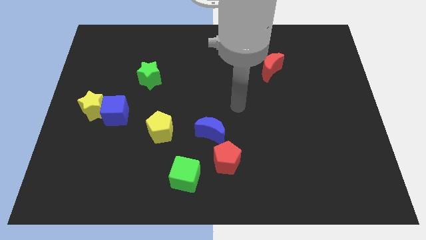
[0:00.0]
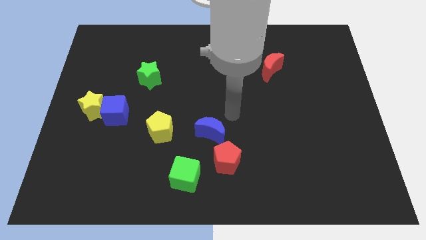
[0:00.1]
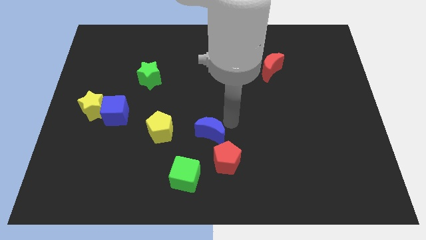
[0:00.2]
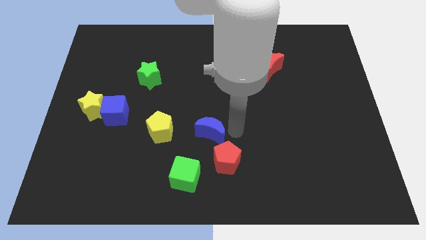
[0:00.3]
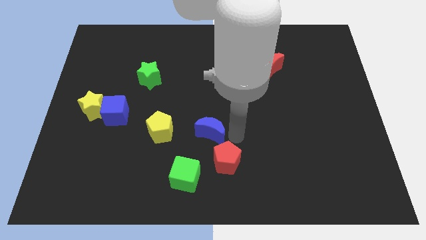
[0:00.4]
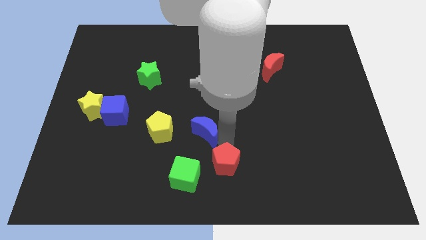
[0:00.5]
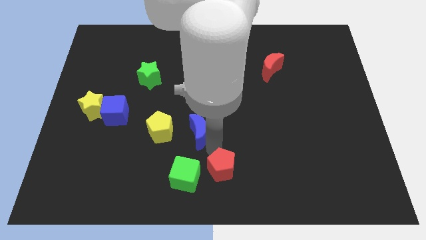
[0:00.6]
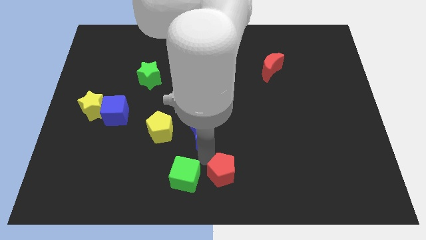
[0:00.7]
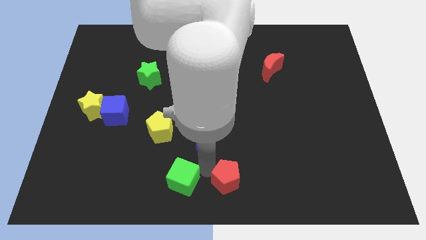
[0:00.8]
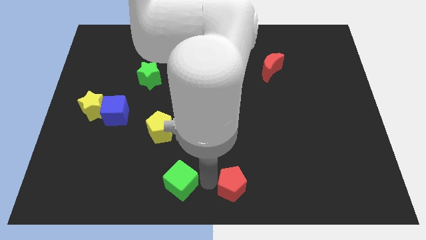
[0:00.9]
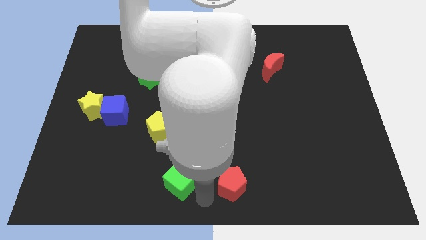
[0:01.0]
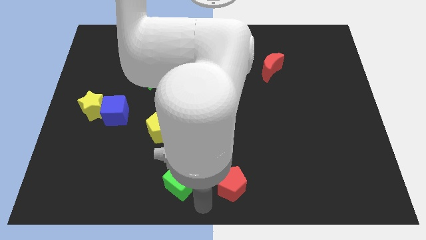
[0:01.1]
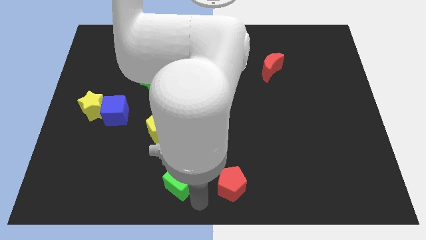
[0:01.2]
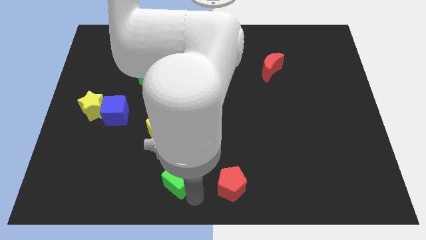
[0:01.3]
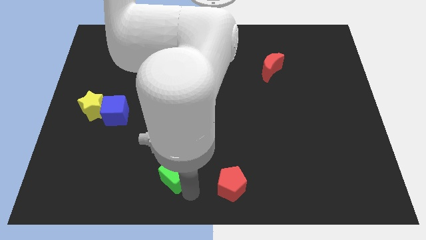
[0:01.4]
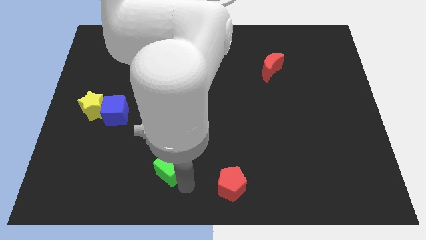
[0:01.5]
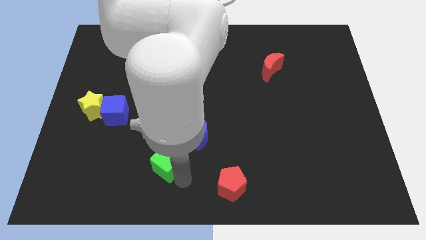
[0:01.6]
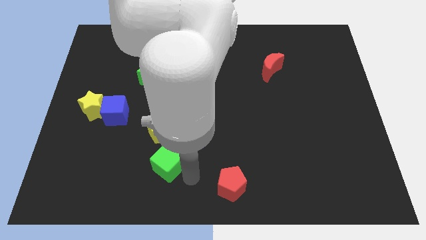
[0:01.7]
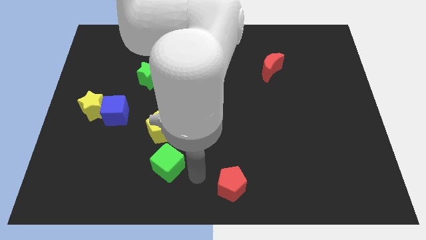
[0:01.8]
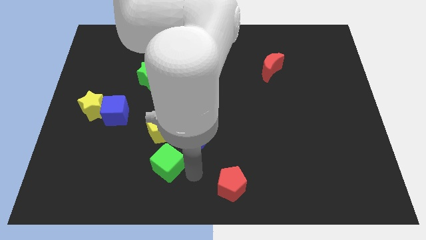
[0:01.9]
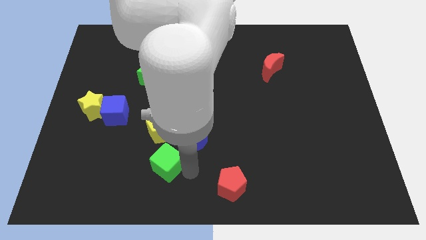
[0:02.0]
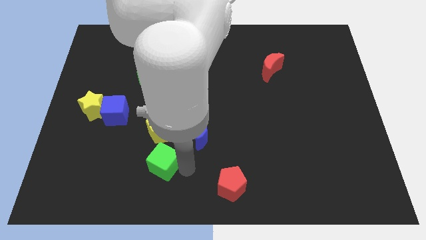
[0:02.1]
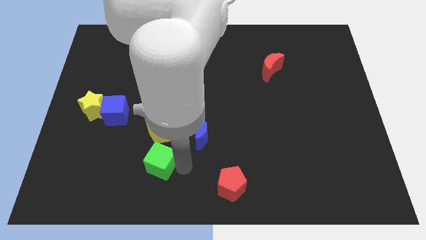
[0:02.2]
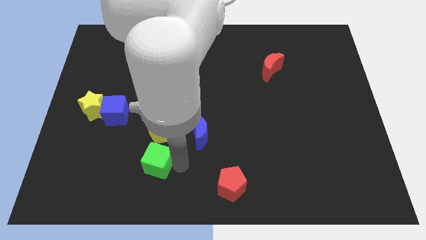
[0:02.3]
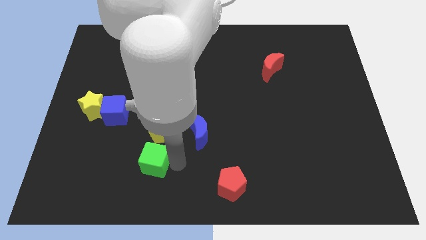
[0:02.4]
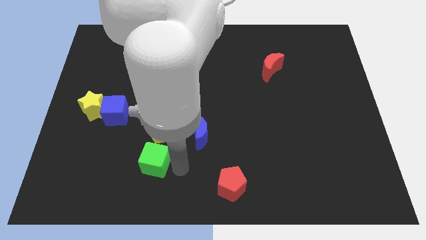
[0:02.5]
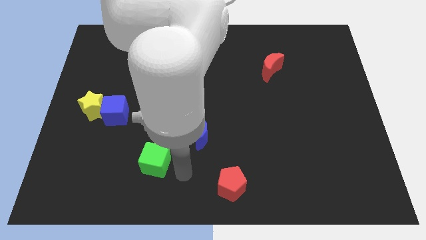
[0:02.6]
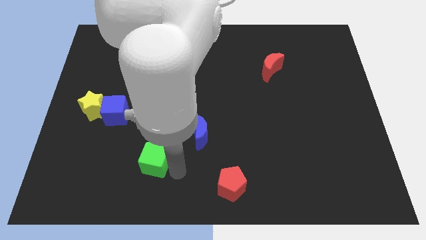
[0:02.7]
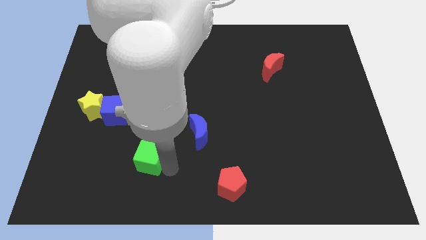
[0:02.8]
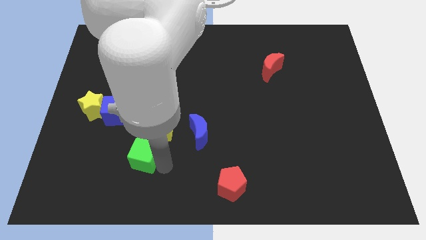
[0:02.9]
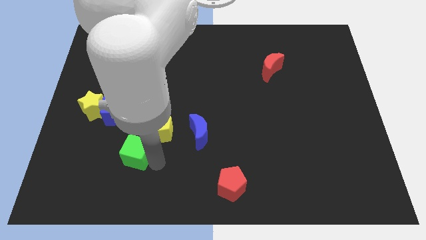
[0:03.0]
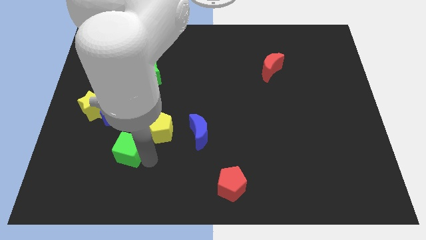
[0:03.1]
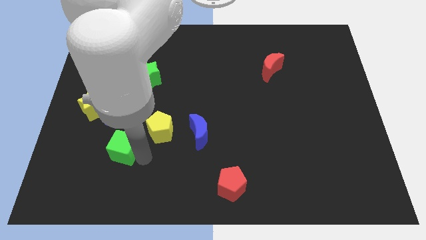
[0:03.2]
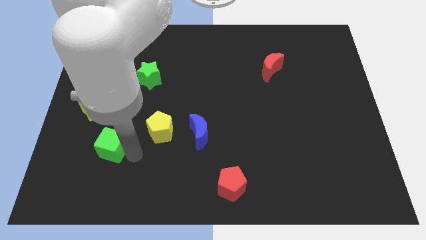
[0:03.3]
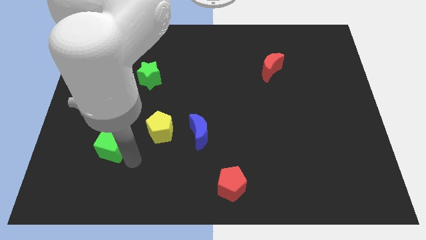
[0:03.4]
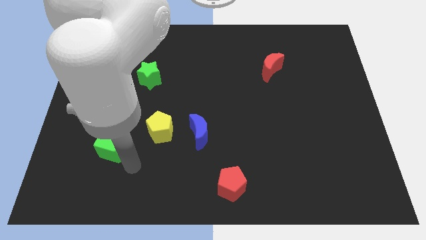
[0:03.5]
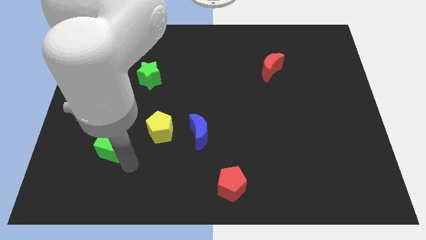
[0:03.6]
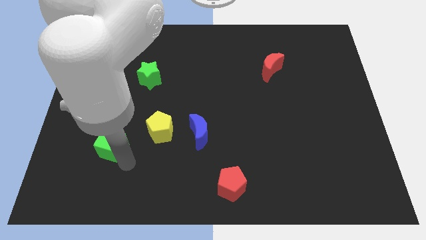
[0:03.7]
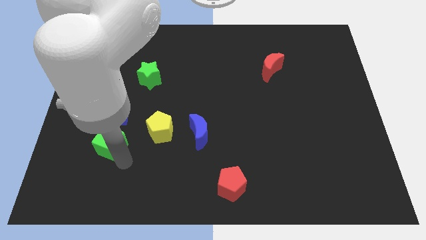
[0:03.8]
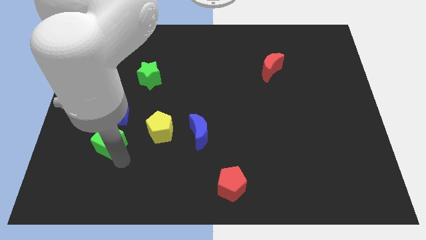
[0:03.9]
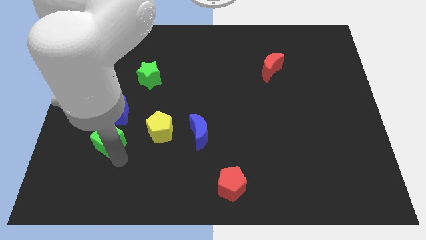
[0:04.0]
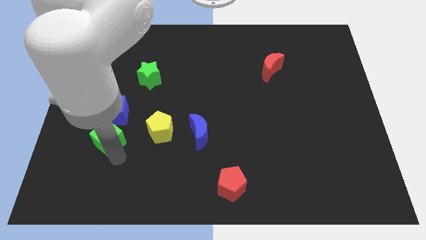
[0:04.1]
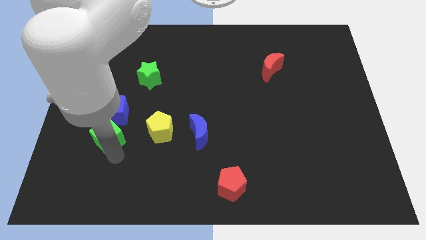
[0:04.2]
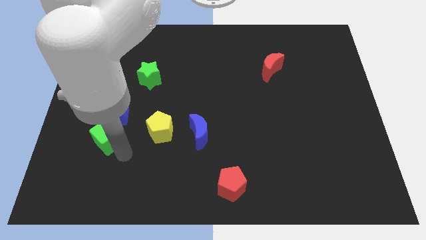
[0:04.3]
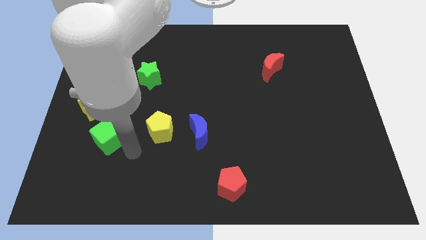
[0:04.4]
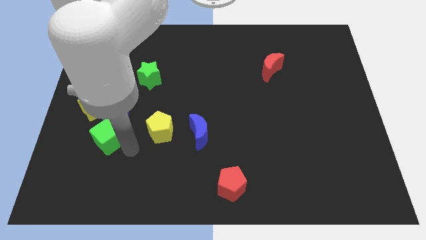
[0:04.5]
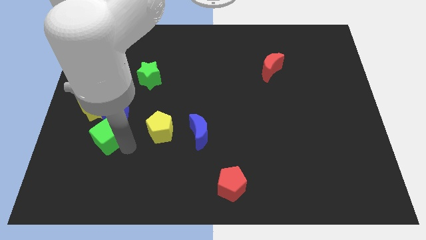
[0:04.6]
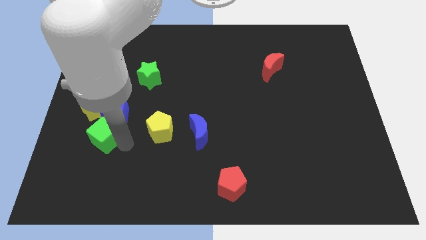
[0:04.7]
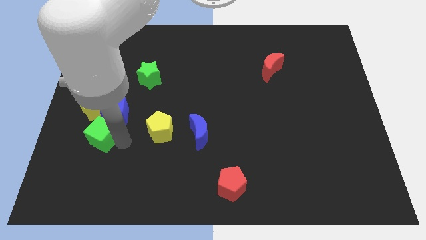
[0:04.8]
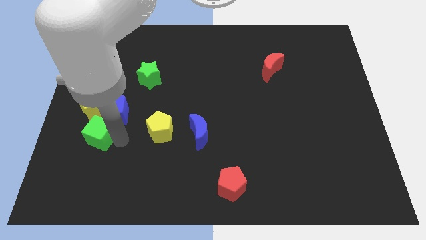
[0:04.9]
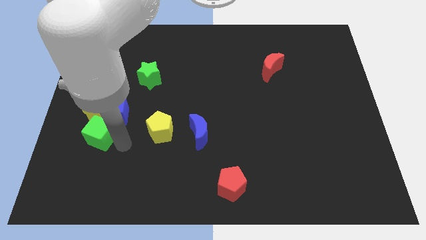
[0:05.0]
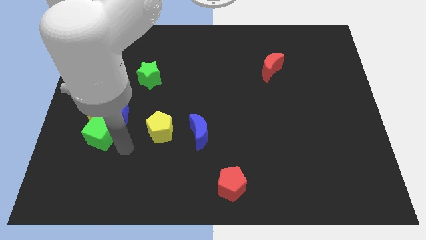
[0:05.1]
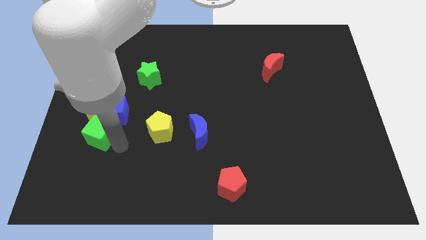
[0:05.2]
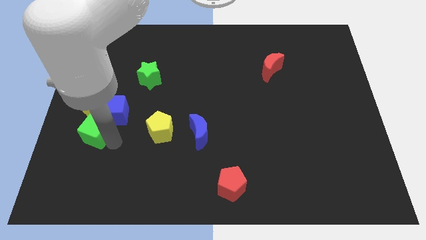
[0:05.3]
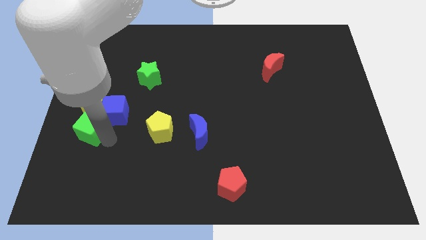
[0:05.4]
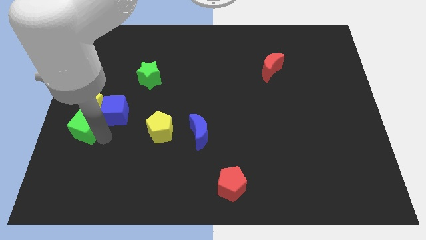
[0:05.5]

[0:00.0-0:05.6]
put the green cube to the center left

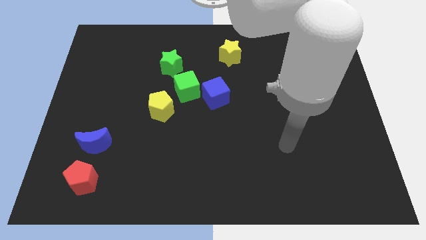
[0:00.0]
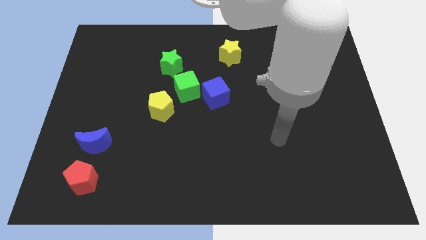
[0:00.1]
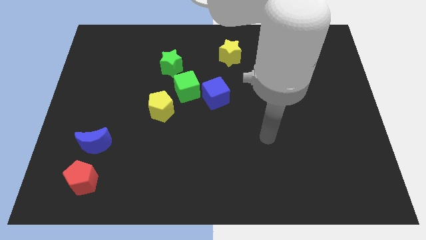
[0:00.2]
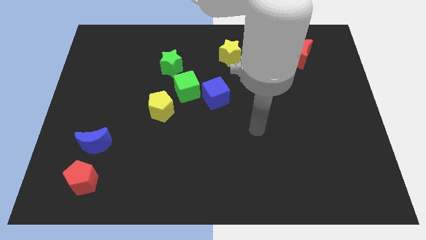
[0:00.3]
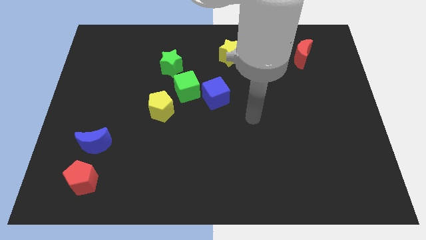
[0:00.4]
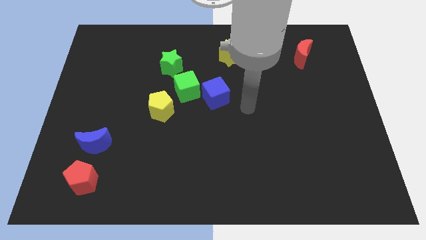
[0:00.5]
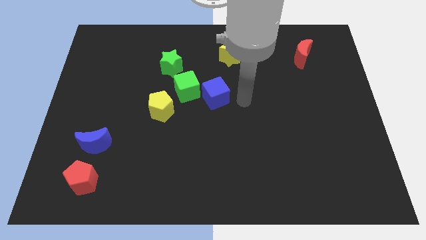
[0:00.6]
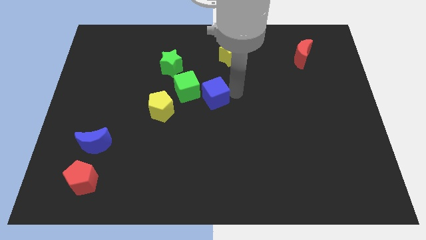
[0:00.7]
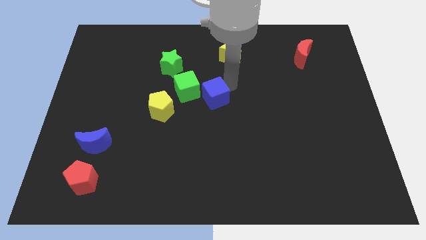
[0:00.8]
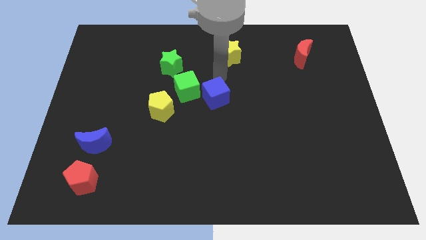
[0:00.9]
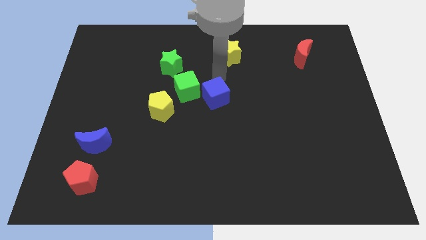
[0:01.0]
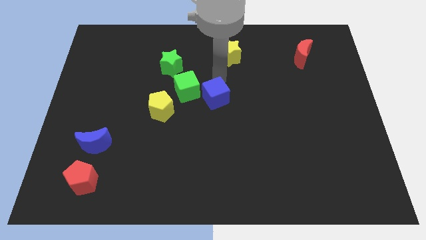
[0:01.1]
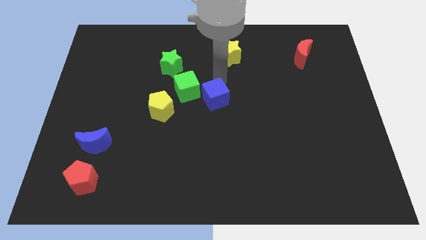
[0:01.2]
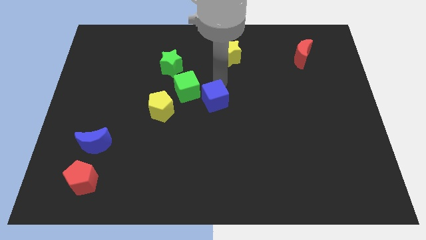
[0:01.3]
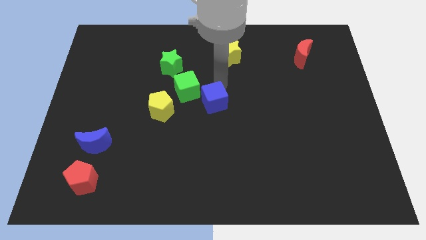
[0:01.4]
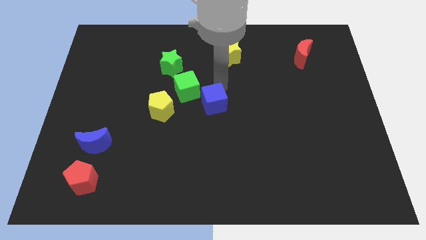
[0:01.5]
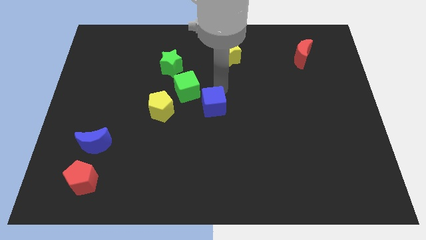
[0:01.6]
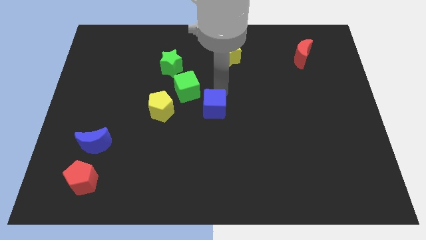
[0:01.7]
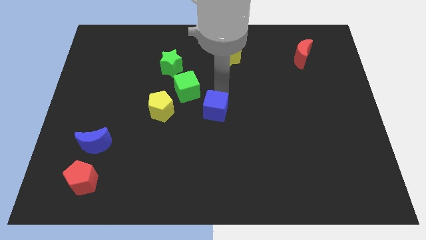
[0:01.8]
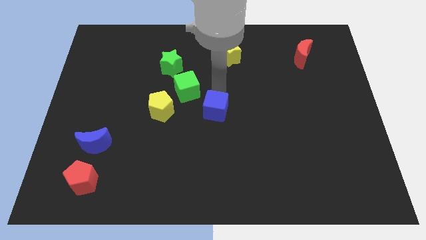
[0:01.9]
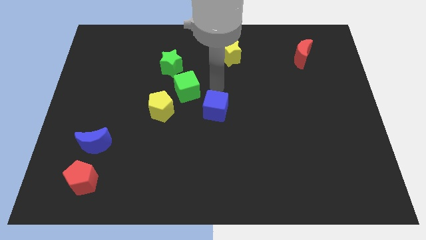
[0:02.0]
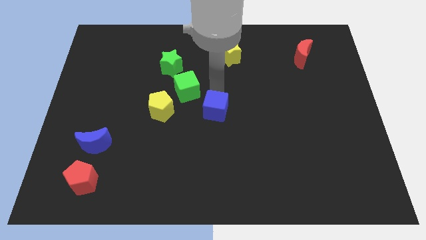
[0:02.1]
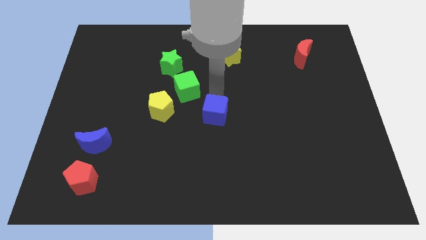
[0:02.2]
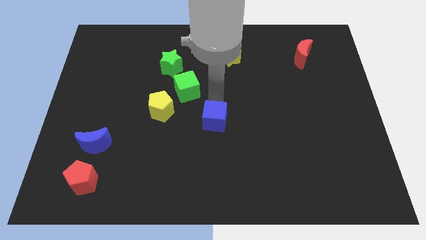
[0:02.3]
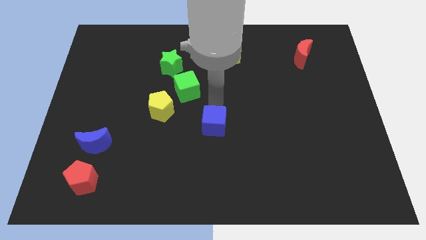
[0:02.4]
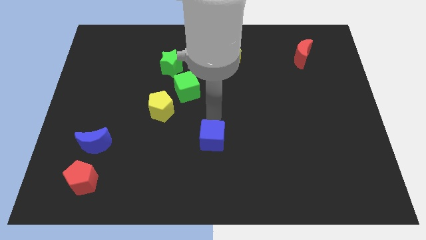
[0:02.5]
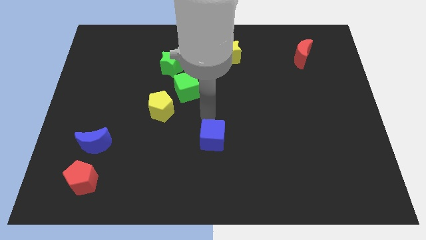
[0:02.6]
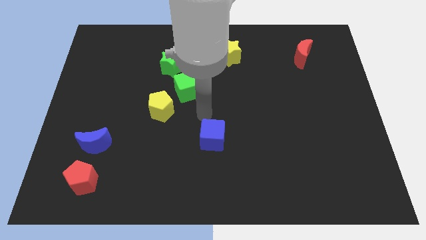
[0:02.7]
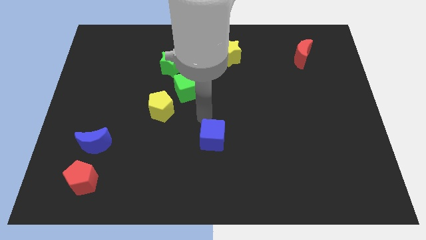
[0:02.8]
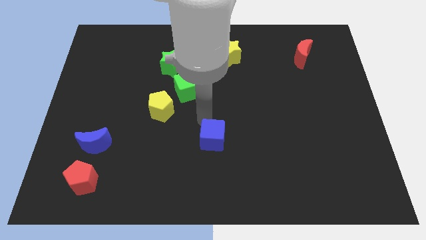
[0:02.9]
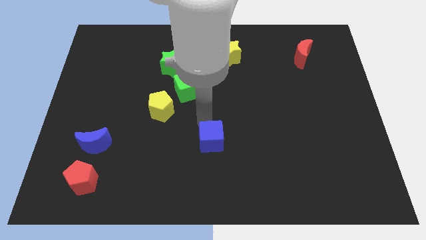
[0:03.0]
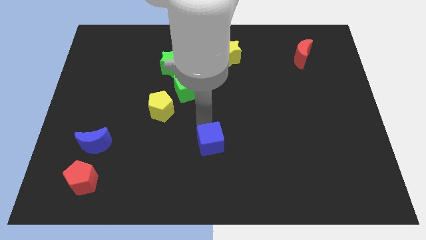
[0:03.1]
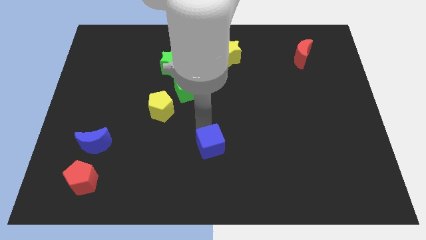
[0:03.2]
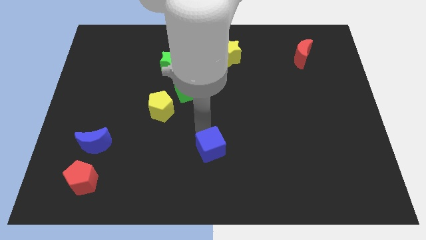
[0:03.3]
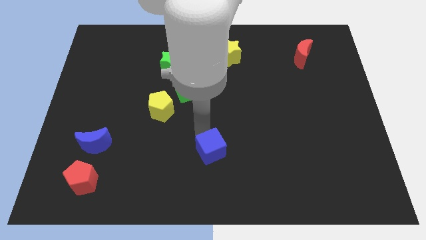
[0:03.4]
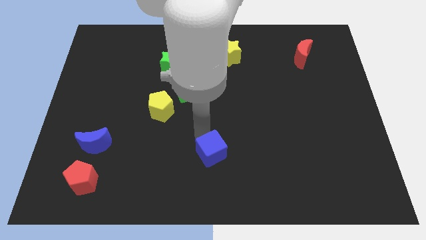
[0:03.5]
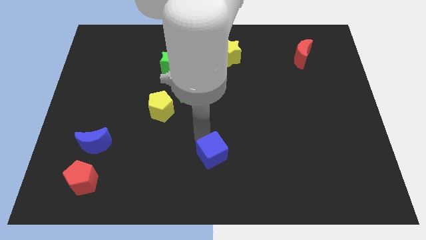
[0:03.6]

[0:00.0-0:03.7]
push the blue cube to the bottom
